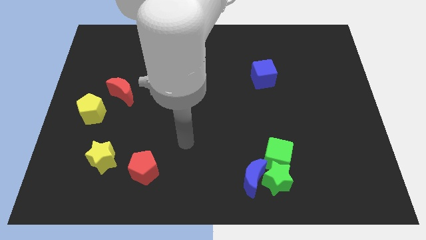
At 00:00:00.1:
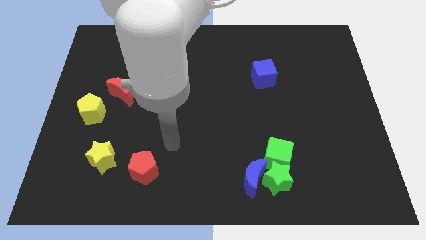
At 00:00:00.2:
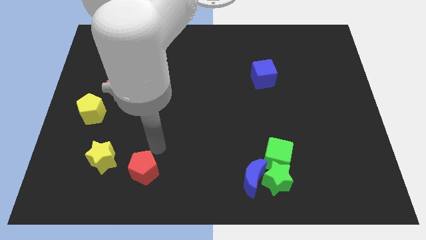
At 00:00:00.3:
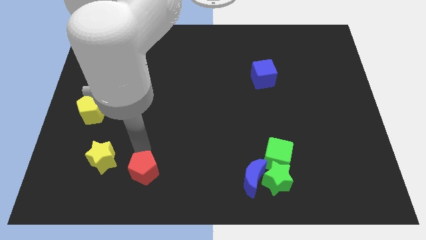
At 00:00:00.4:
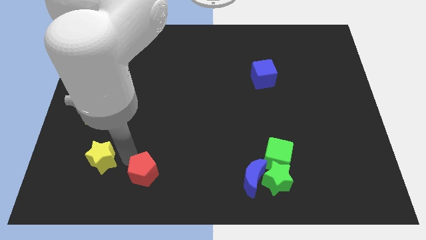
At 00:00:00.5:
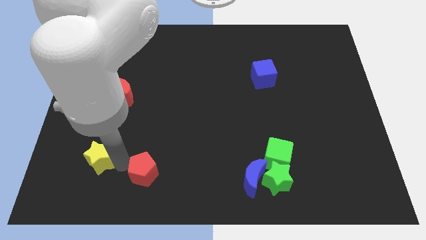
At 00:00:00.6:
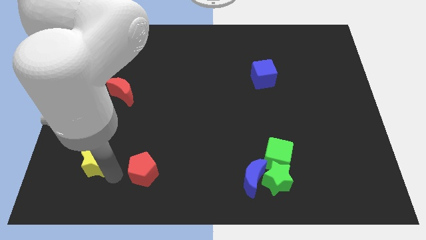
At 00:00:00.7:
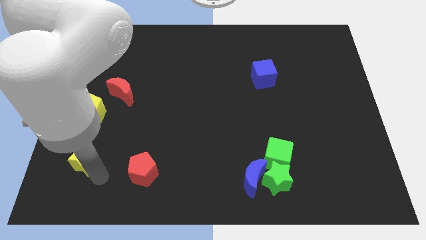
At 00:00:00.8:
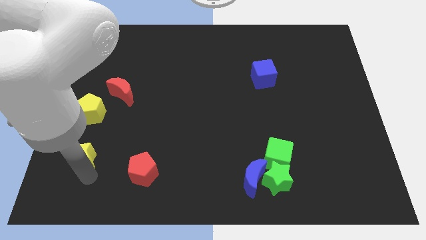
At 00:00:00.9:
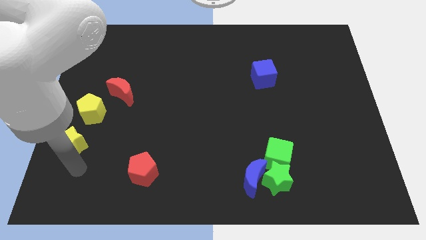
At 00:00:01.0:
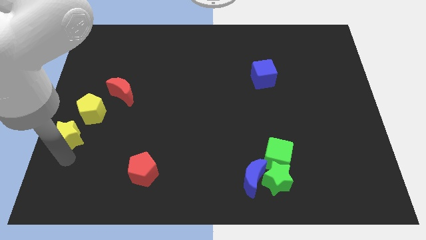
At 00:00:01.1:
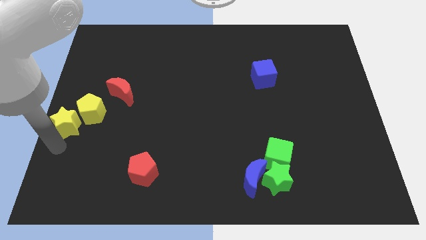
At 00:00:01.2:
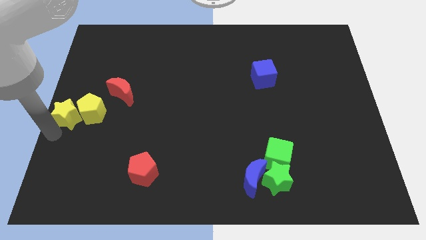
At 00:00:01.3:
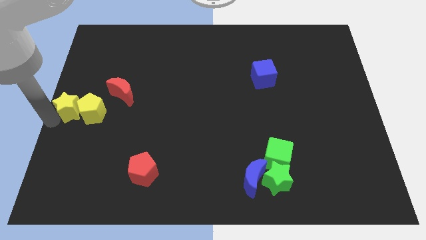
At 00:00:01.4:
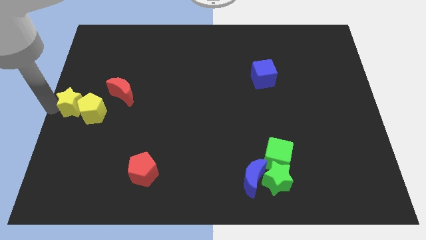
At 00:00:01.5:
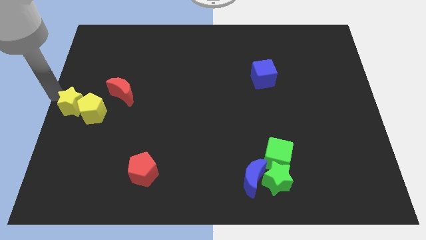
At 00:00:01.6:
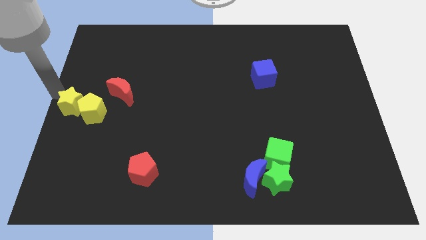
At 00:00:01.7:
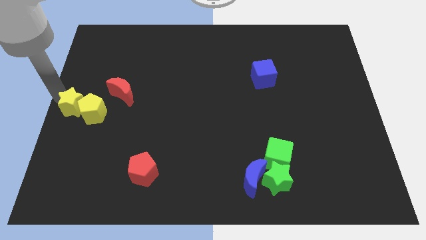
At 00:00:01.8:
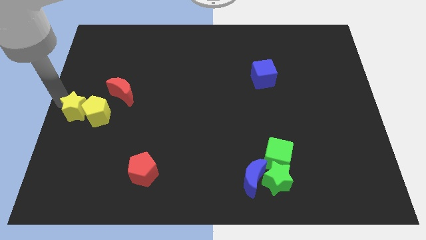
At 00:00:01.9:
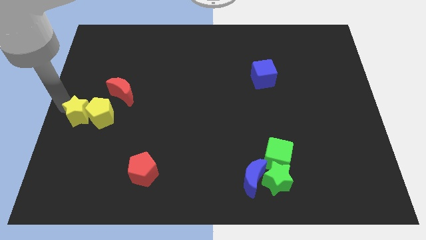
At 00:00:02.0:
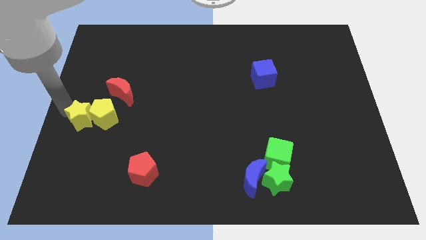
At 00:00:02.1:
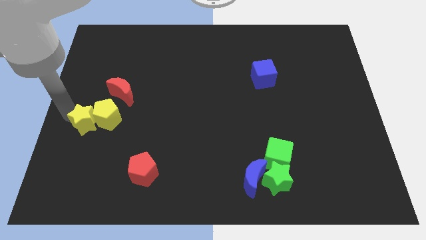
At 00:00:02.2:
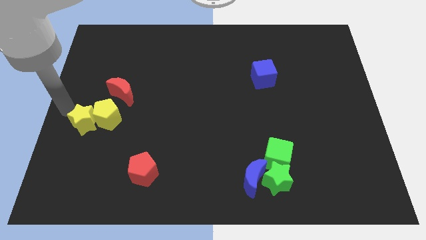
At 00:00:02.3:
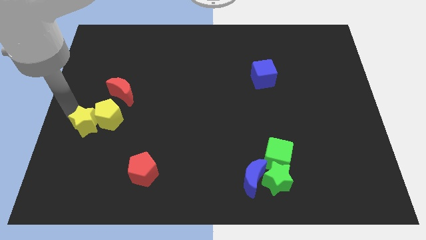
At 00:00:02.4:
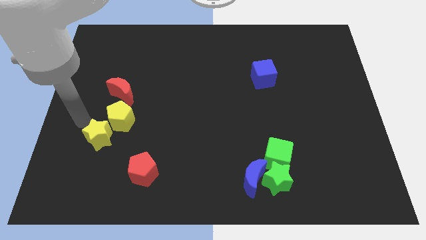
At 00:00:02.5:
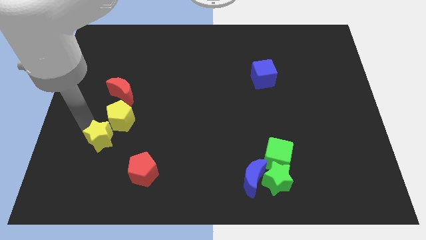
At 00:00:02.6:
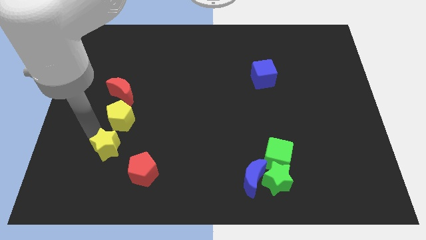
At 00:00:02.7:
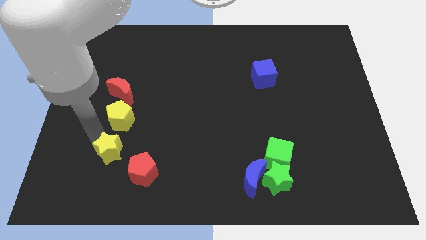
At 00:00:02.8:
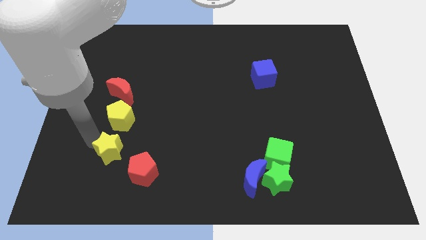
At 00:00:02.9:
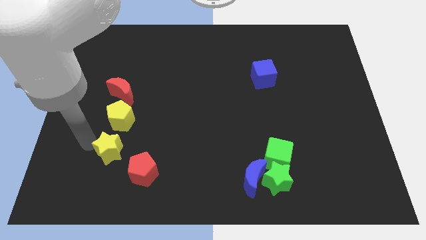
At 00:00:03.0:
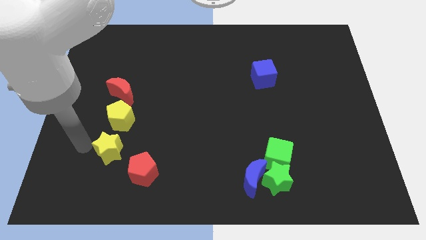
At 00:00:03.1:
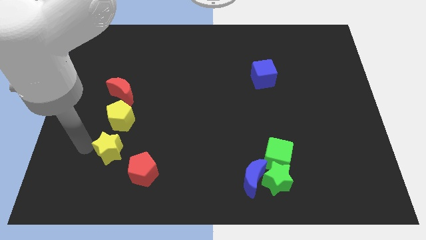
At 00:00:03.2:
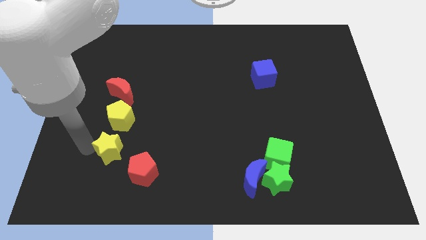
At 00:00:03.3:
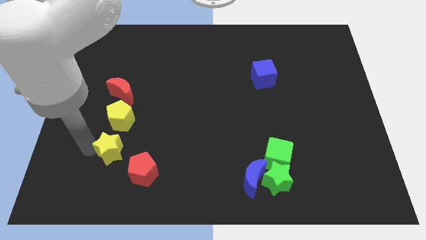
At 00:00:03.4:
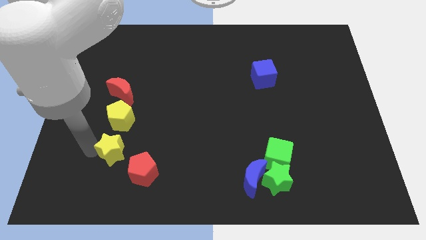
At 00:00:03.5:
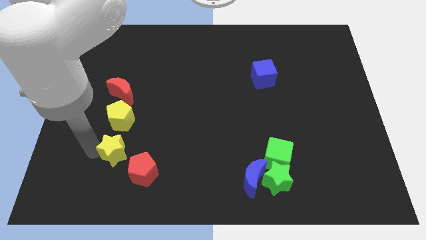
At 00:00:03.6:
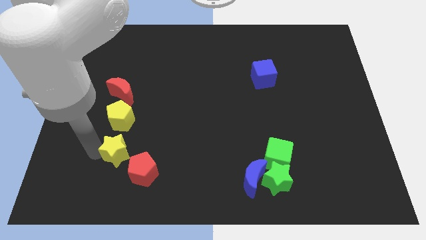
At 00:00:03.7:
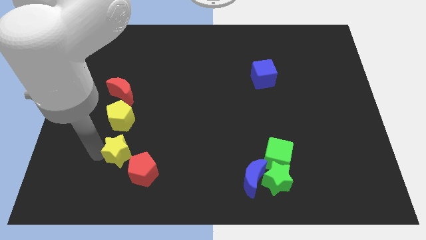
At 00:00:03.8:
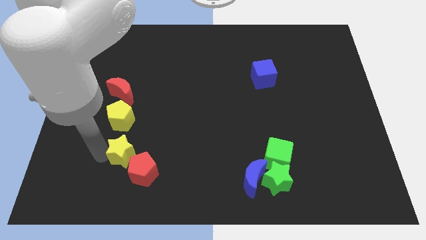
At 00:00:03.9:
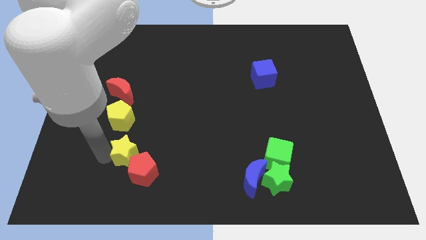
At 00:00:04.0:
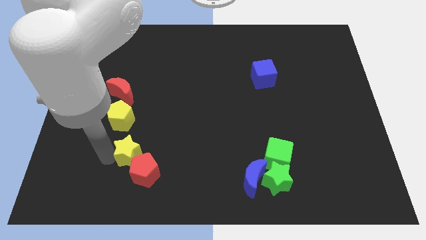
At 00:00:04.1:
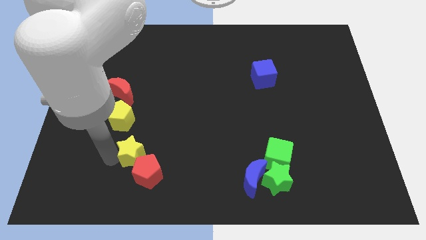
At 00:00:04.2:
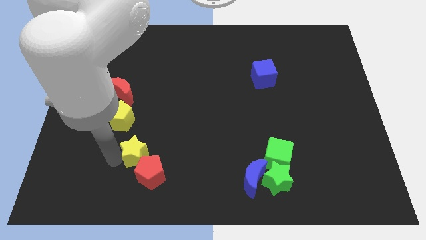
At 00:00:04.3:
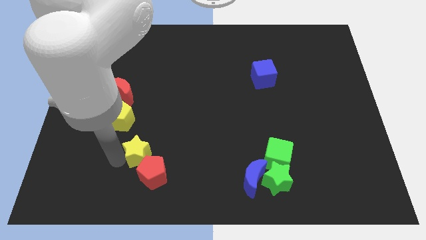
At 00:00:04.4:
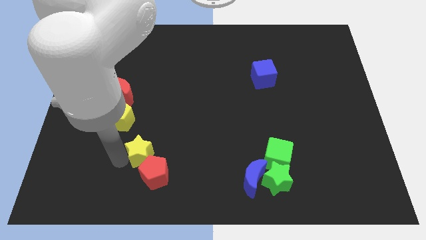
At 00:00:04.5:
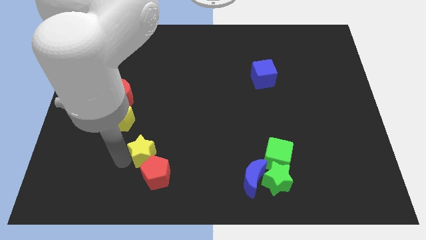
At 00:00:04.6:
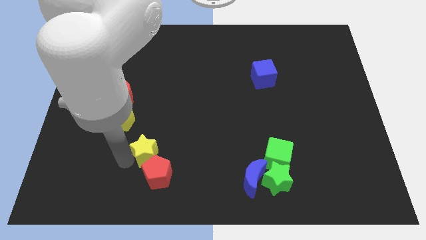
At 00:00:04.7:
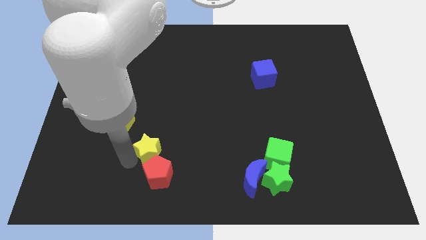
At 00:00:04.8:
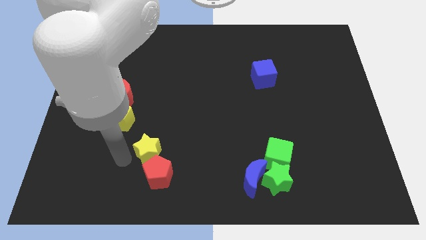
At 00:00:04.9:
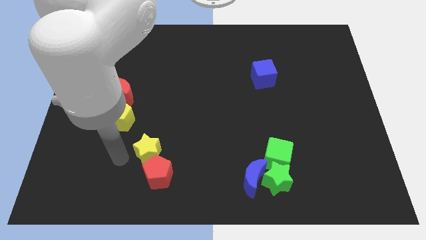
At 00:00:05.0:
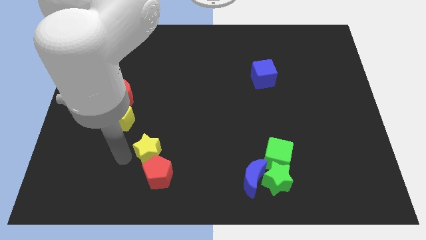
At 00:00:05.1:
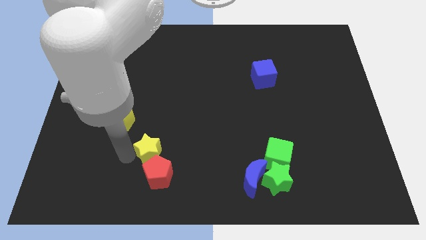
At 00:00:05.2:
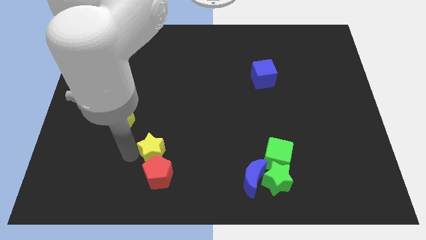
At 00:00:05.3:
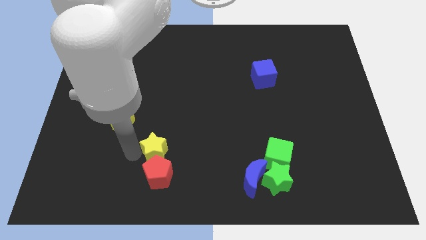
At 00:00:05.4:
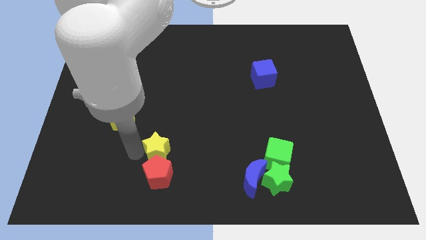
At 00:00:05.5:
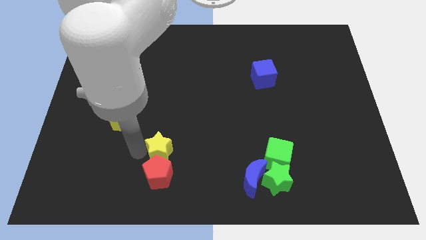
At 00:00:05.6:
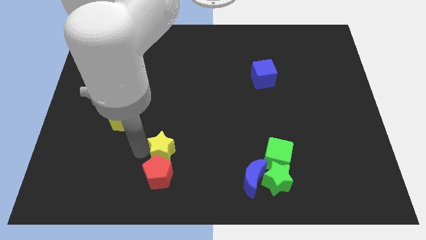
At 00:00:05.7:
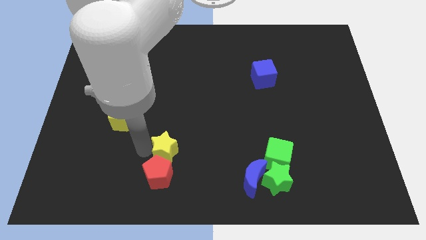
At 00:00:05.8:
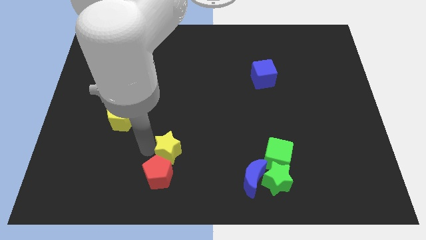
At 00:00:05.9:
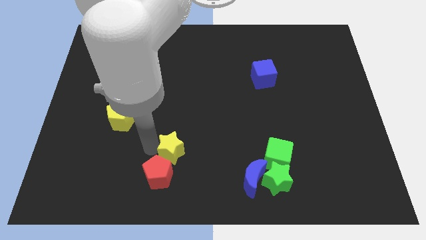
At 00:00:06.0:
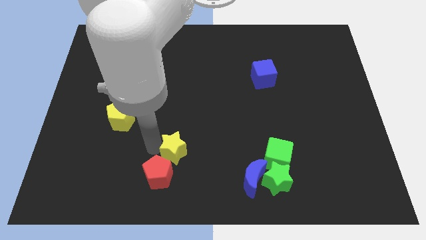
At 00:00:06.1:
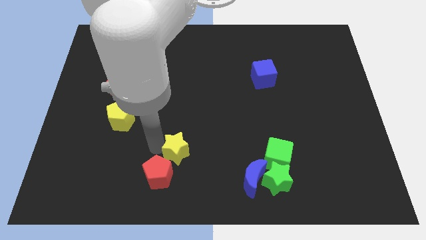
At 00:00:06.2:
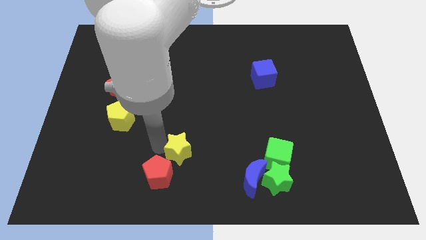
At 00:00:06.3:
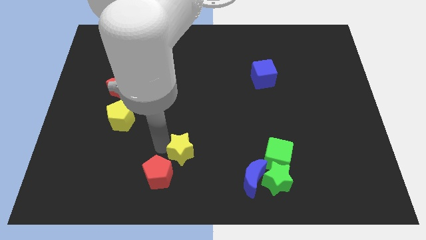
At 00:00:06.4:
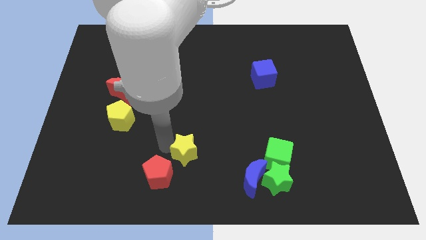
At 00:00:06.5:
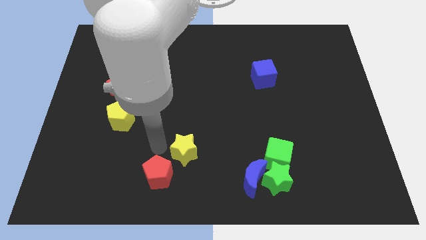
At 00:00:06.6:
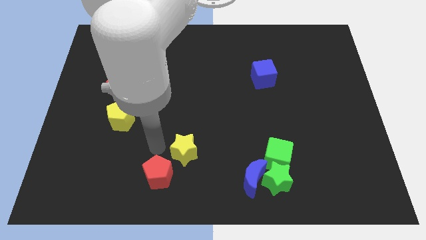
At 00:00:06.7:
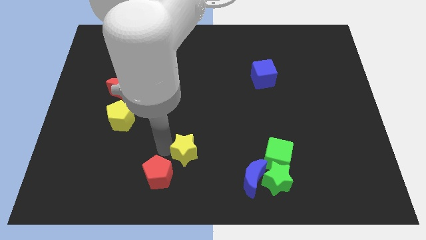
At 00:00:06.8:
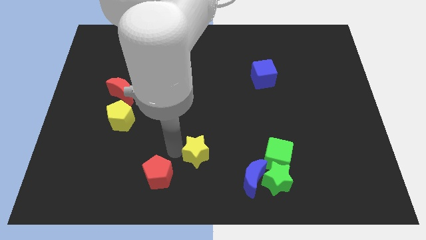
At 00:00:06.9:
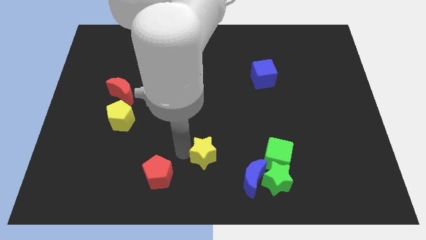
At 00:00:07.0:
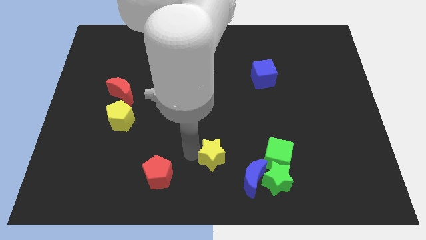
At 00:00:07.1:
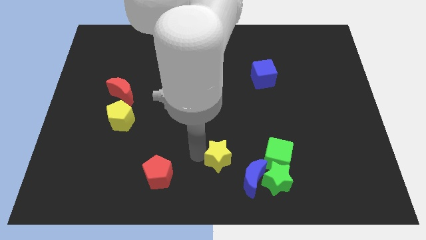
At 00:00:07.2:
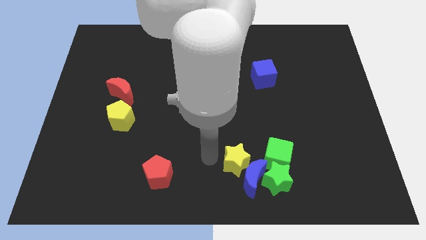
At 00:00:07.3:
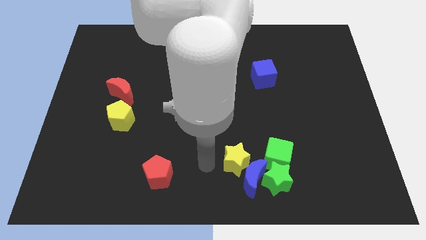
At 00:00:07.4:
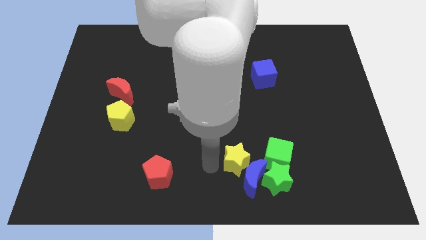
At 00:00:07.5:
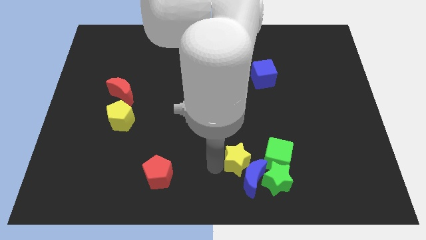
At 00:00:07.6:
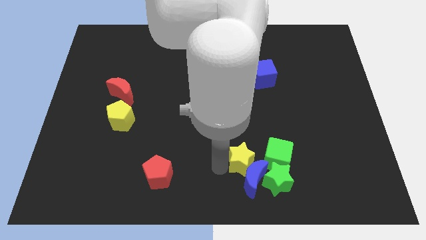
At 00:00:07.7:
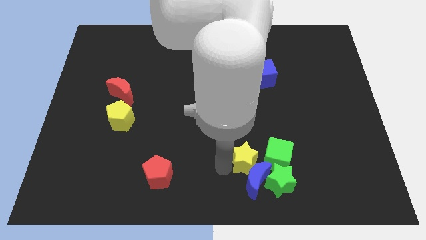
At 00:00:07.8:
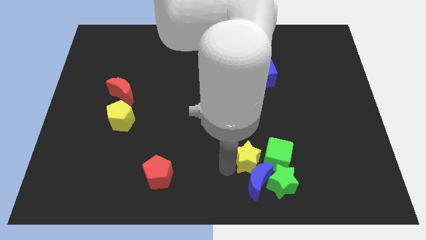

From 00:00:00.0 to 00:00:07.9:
slide the yellow star towards the green cube
